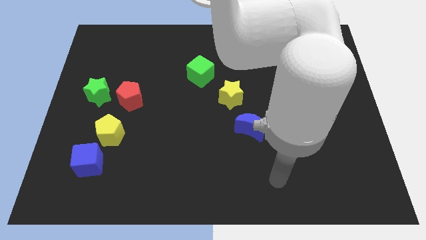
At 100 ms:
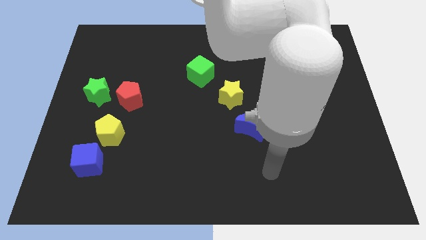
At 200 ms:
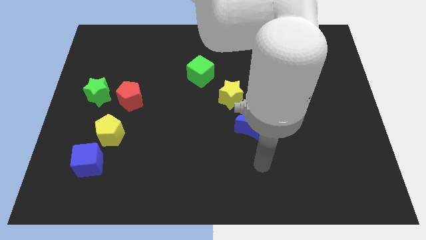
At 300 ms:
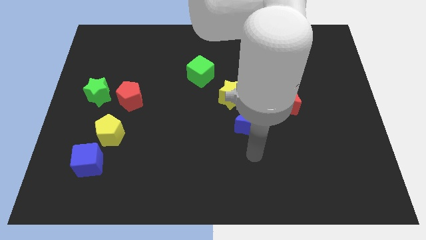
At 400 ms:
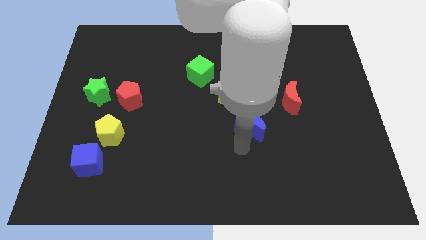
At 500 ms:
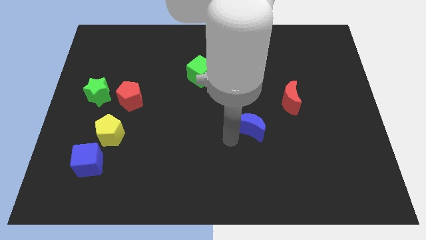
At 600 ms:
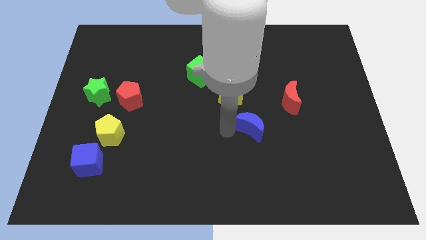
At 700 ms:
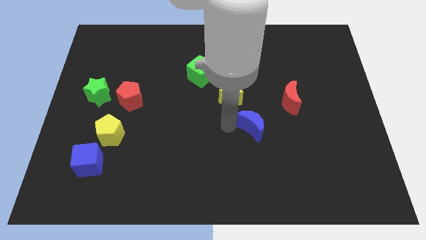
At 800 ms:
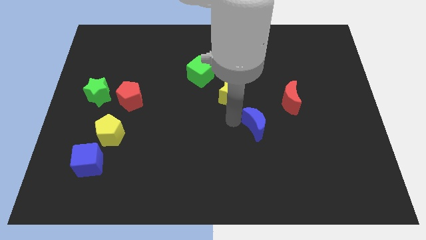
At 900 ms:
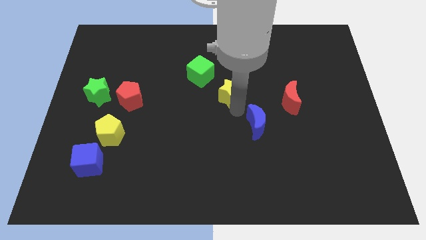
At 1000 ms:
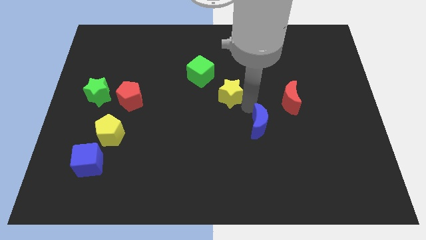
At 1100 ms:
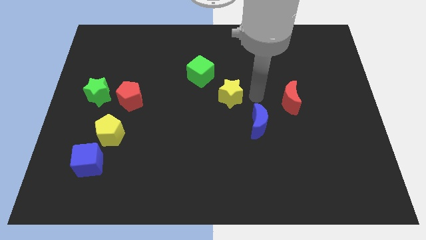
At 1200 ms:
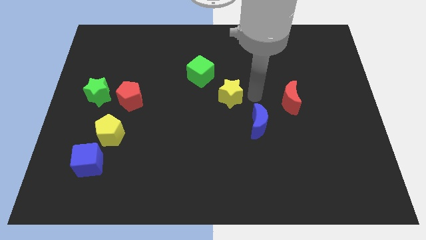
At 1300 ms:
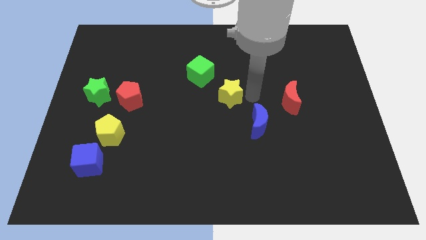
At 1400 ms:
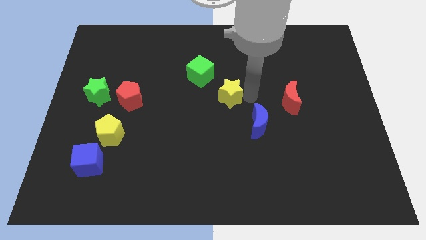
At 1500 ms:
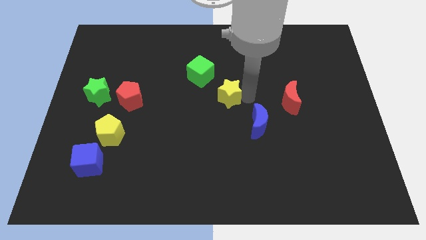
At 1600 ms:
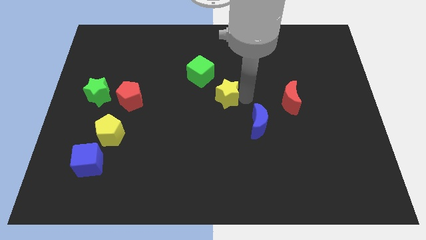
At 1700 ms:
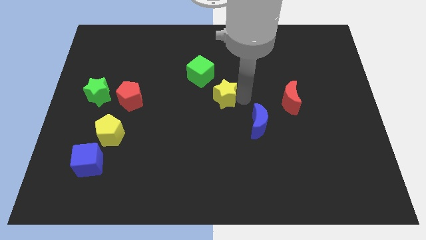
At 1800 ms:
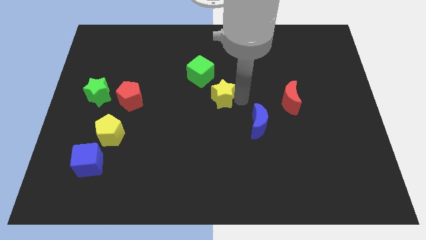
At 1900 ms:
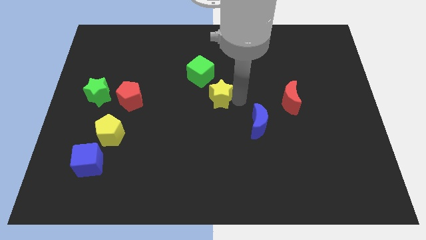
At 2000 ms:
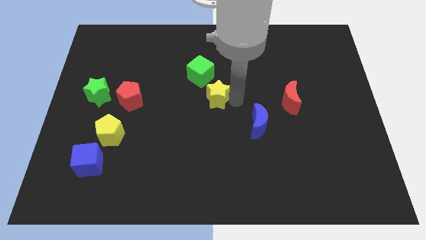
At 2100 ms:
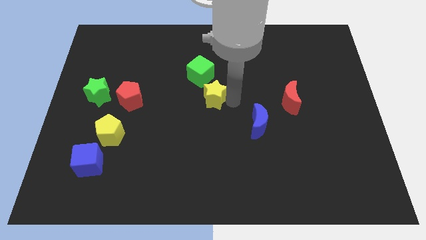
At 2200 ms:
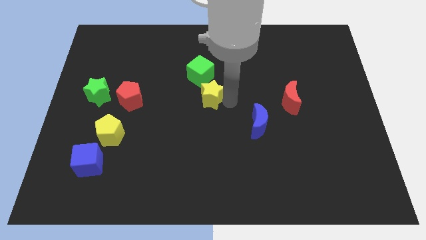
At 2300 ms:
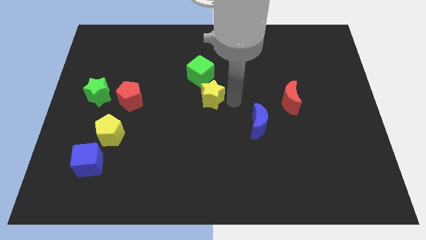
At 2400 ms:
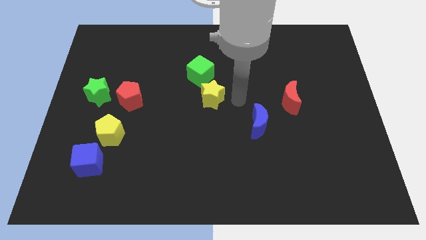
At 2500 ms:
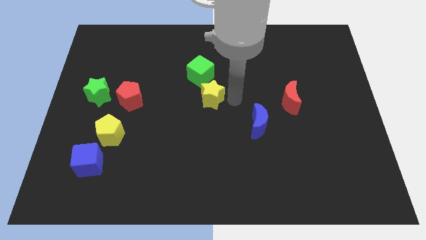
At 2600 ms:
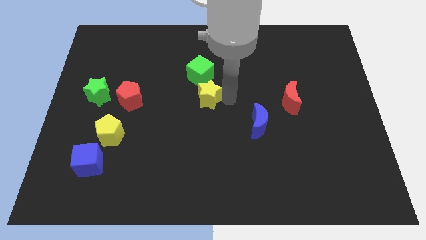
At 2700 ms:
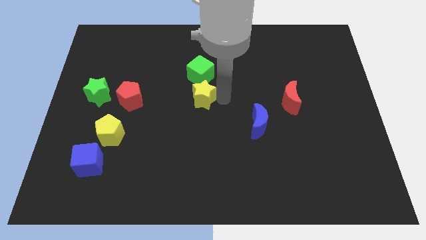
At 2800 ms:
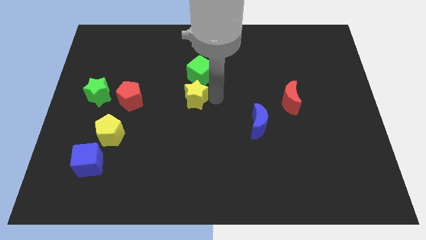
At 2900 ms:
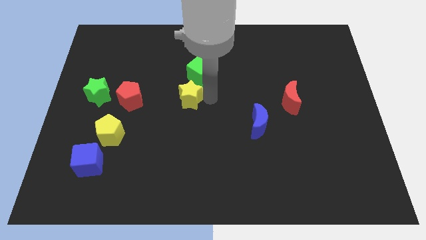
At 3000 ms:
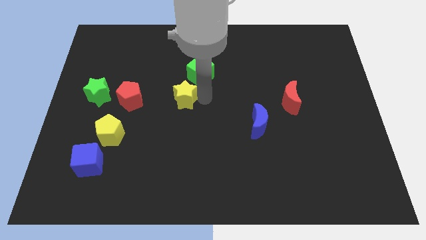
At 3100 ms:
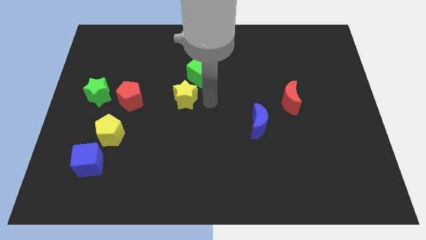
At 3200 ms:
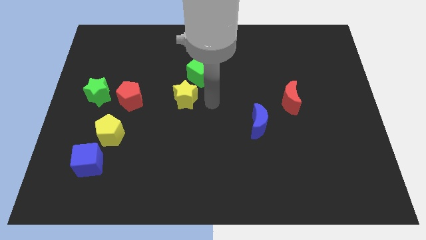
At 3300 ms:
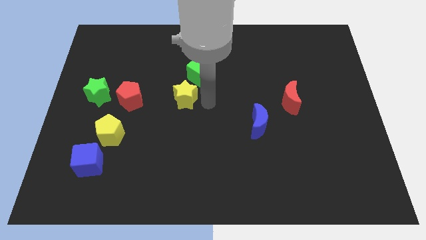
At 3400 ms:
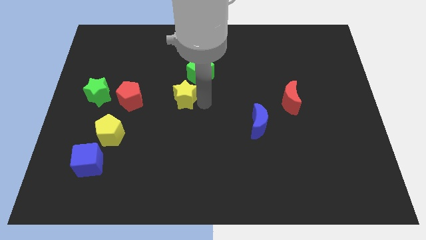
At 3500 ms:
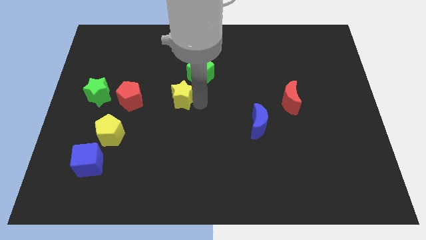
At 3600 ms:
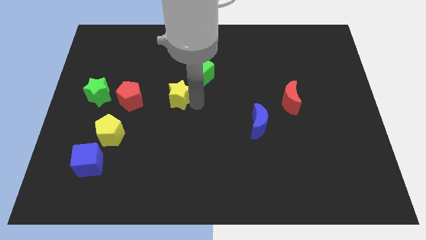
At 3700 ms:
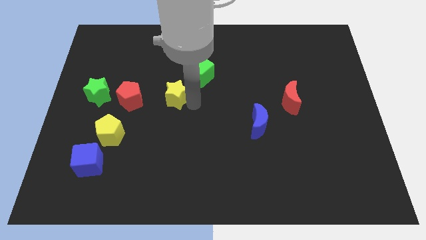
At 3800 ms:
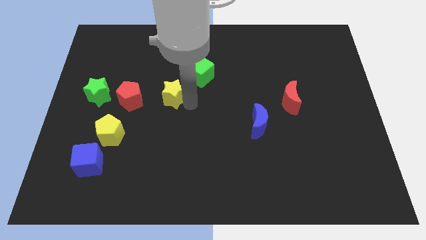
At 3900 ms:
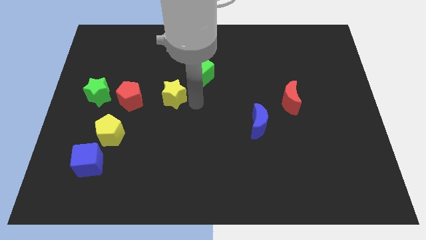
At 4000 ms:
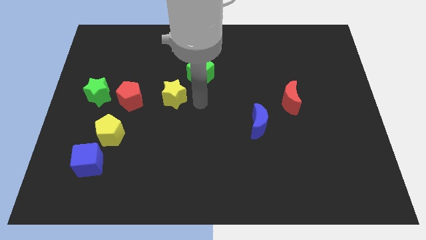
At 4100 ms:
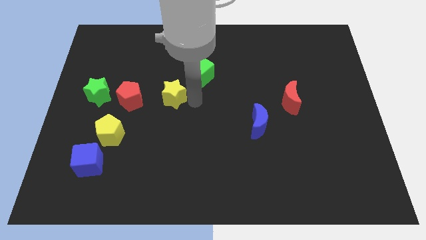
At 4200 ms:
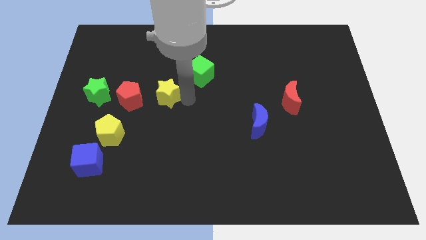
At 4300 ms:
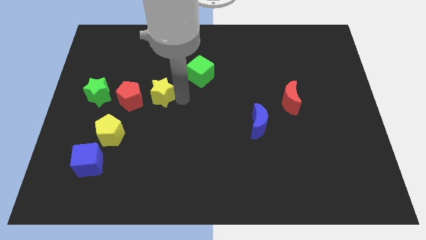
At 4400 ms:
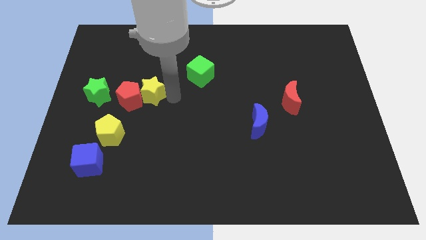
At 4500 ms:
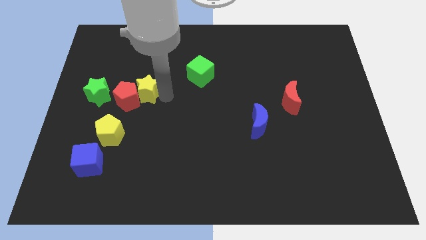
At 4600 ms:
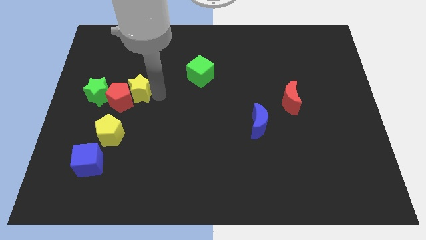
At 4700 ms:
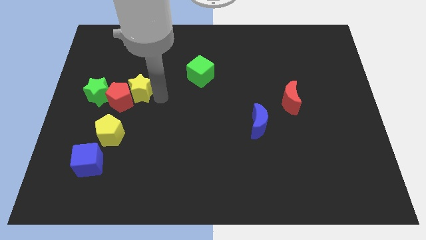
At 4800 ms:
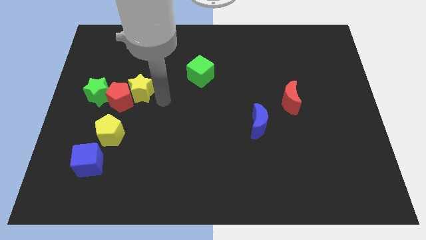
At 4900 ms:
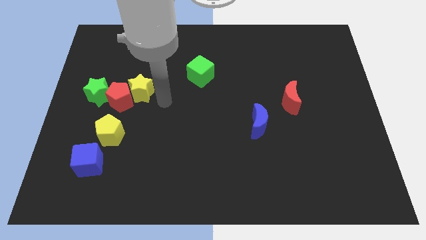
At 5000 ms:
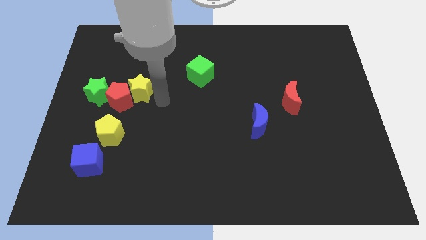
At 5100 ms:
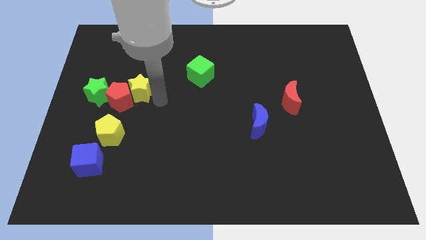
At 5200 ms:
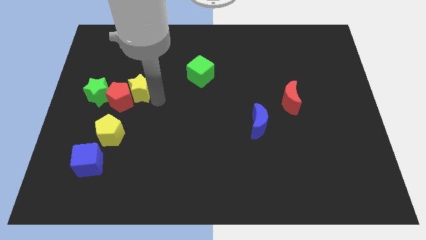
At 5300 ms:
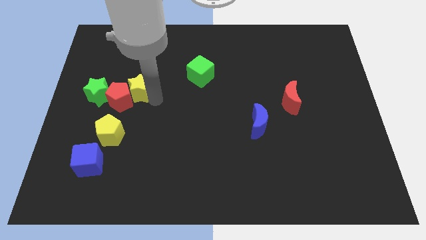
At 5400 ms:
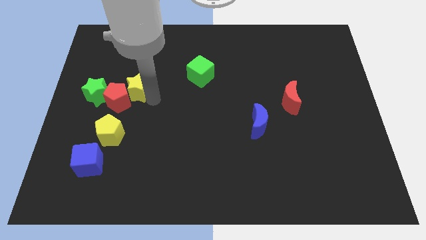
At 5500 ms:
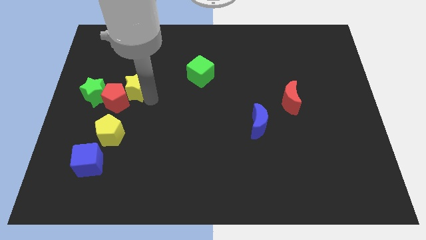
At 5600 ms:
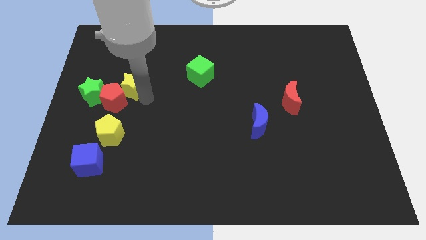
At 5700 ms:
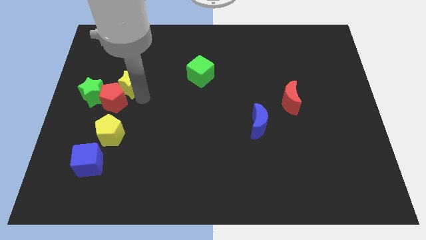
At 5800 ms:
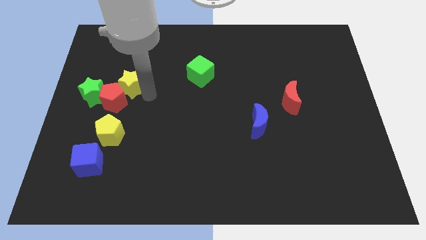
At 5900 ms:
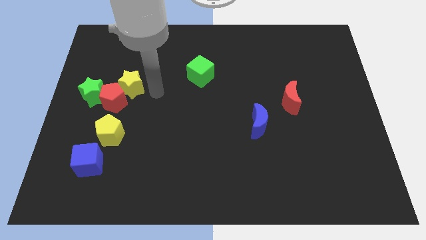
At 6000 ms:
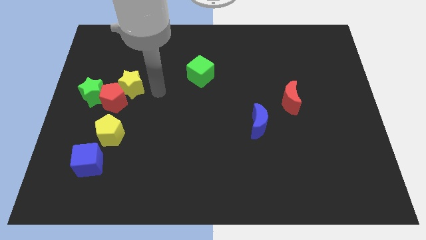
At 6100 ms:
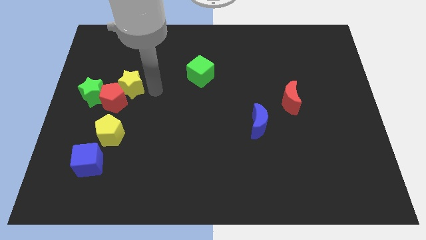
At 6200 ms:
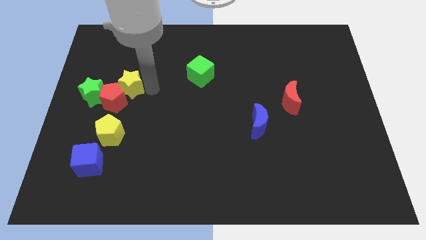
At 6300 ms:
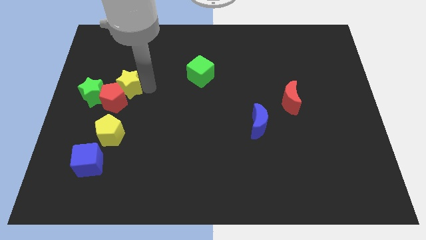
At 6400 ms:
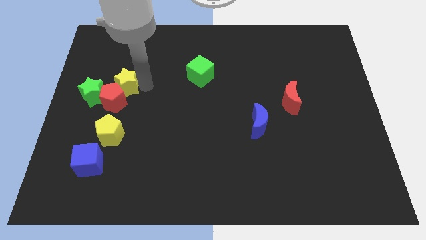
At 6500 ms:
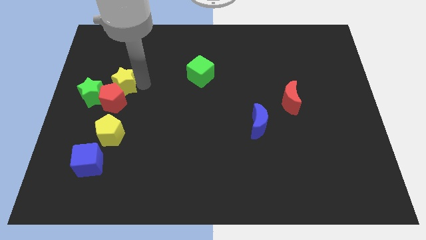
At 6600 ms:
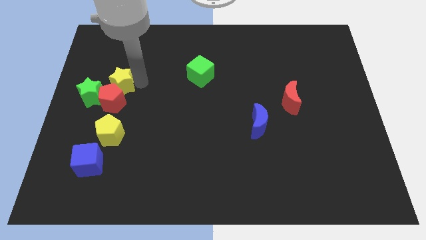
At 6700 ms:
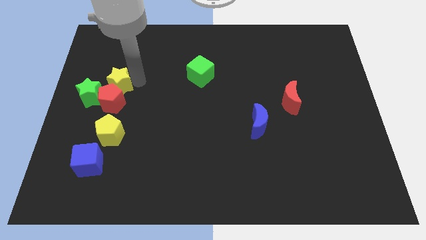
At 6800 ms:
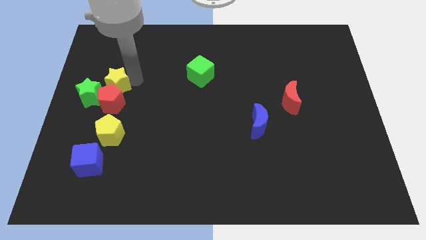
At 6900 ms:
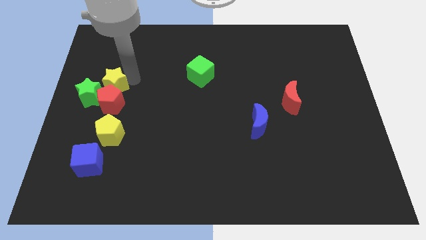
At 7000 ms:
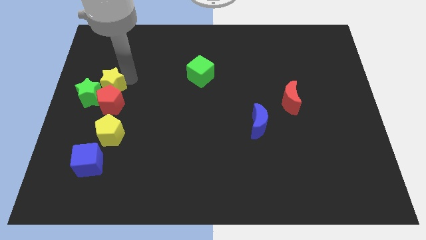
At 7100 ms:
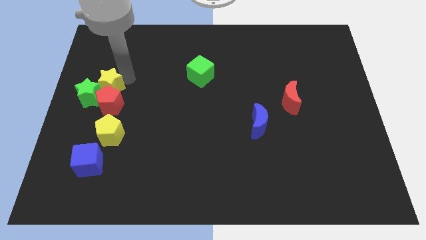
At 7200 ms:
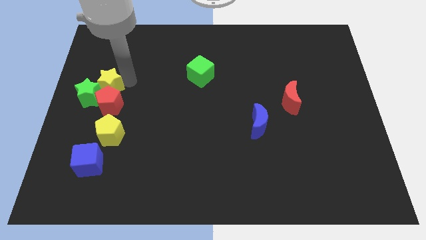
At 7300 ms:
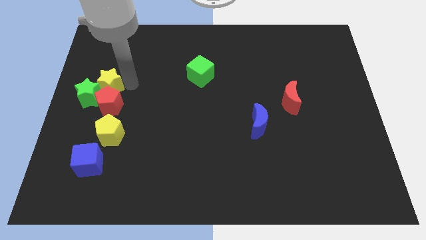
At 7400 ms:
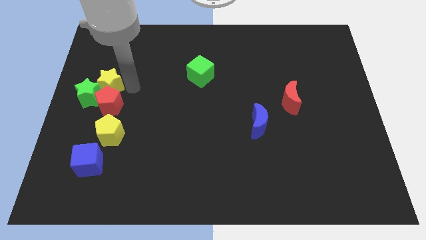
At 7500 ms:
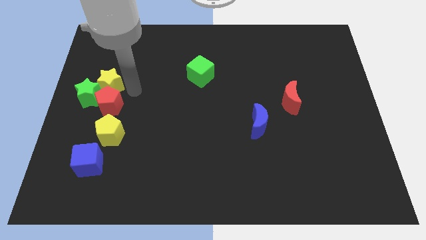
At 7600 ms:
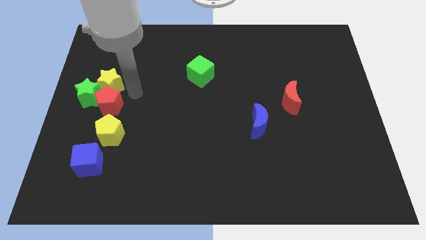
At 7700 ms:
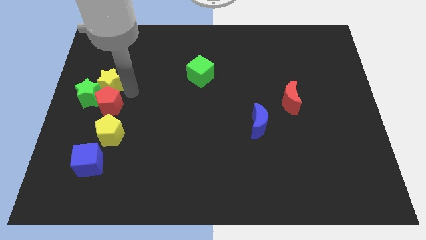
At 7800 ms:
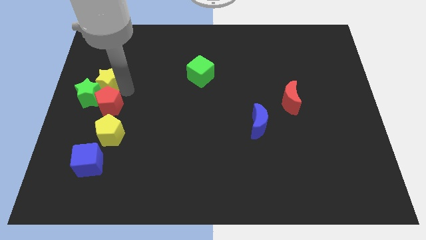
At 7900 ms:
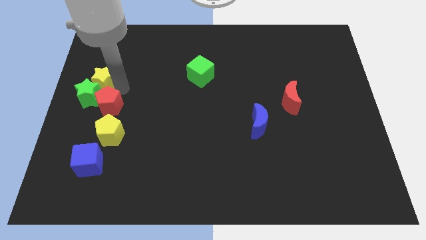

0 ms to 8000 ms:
push the yellow star to the left side of the board
